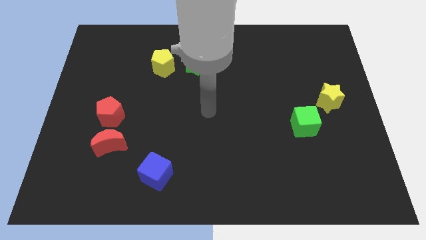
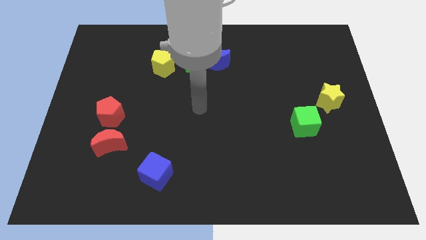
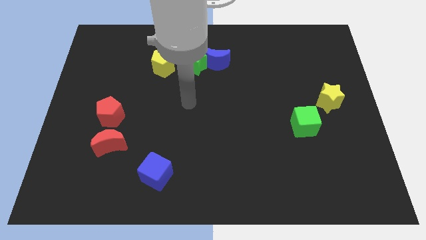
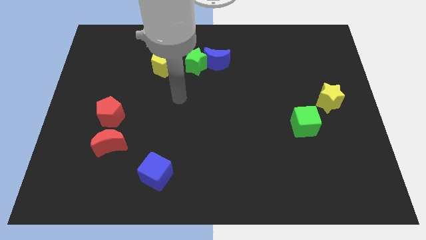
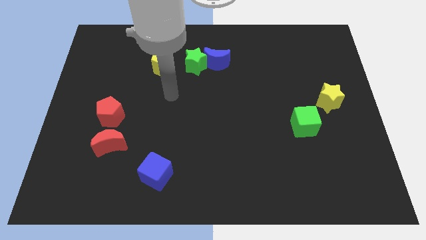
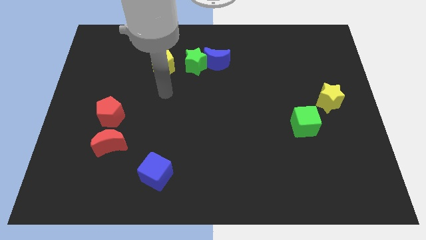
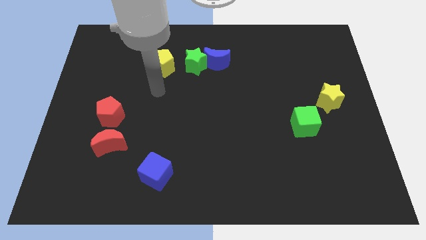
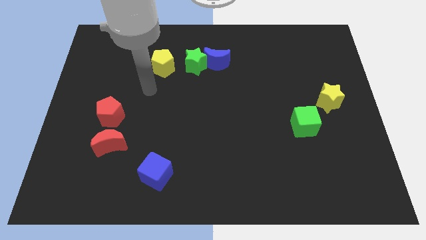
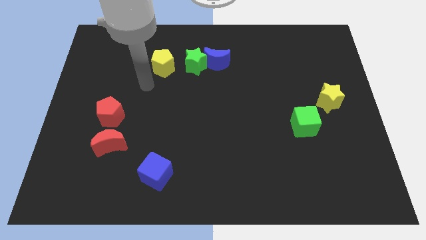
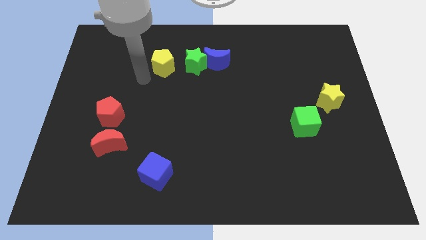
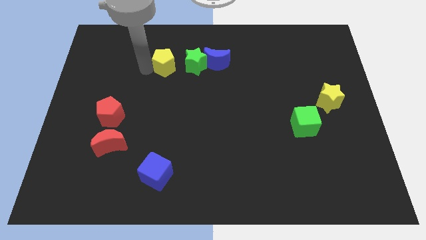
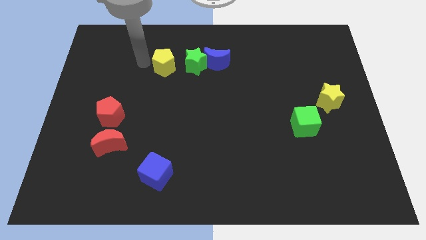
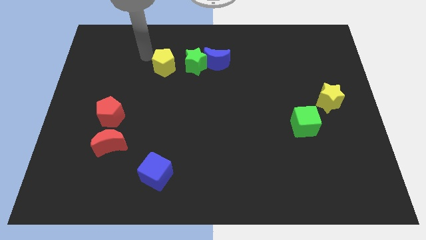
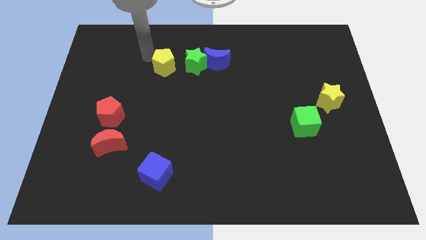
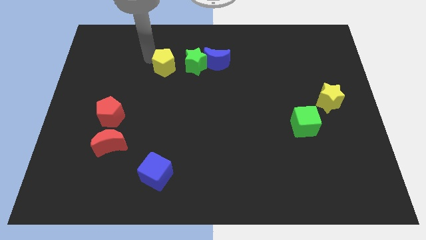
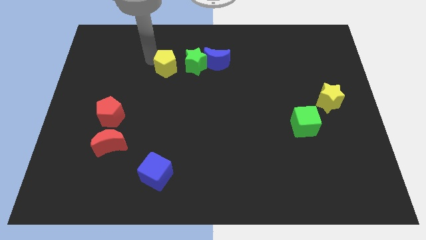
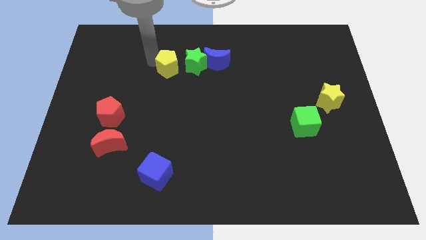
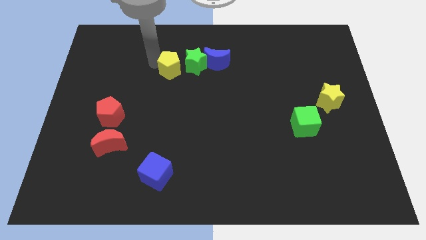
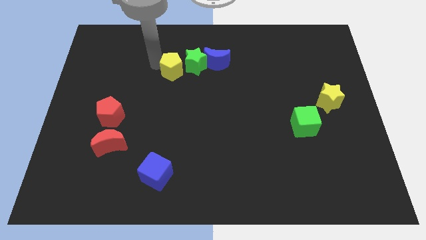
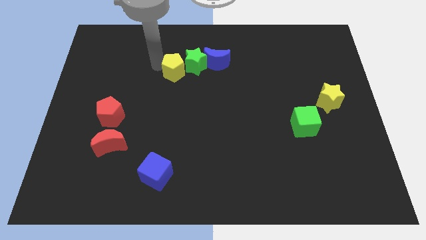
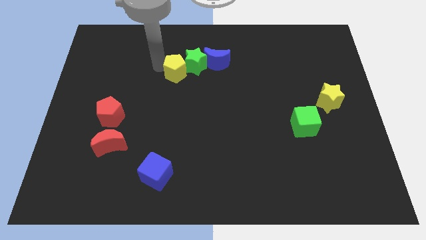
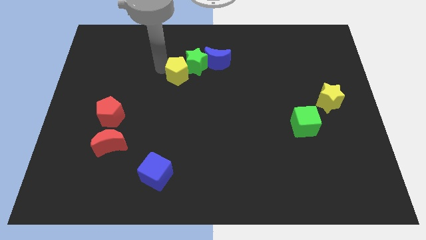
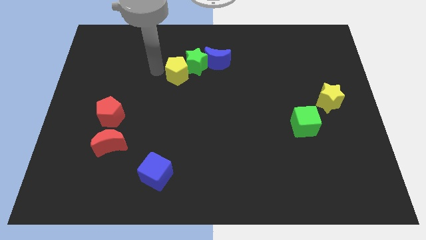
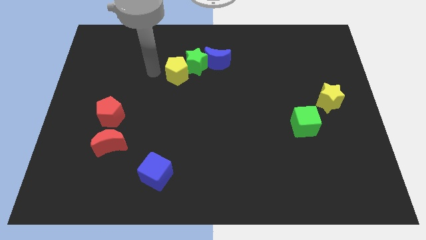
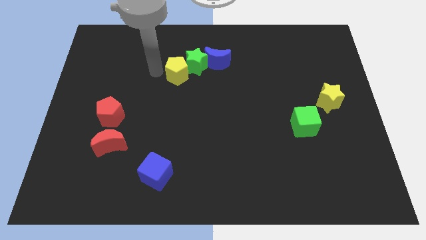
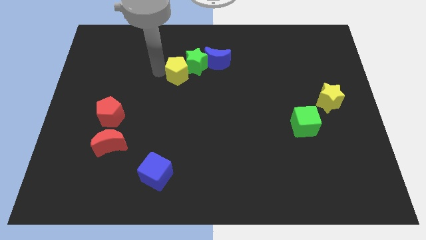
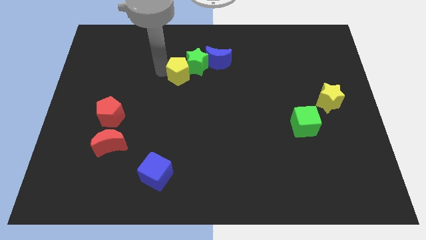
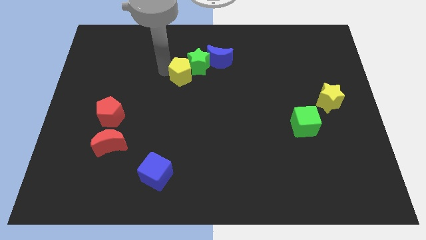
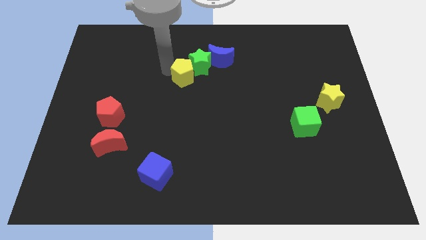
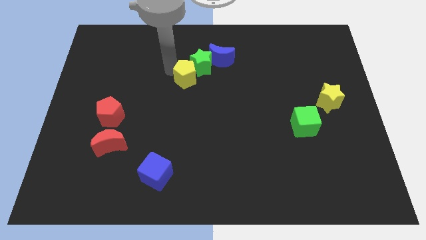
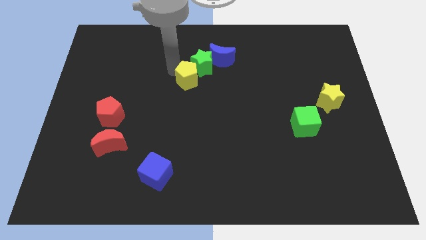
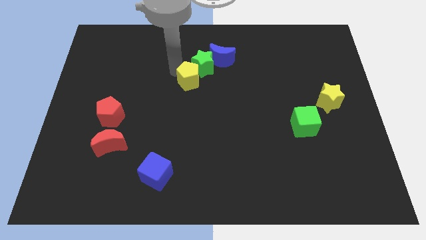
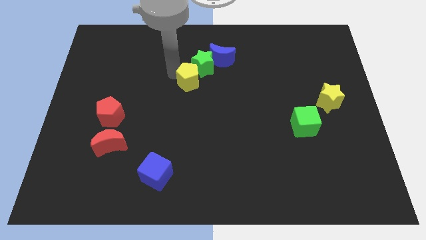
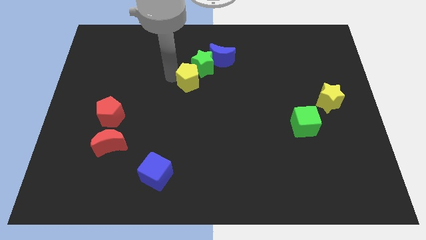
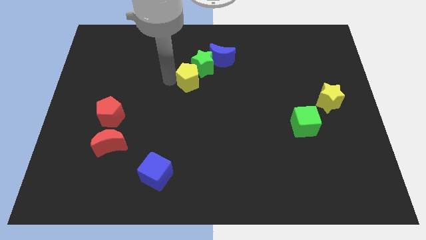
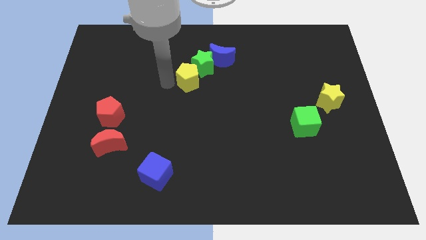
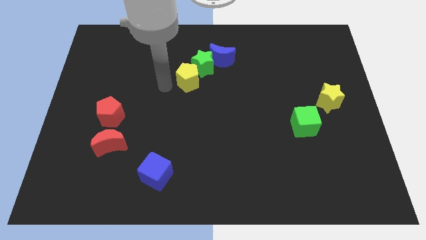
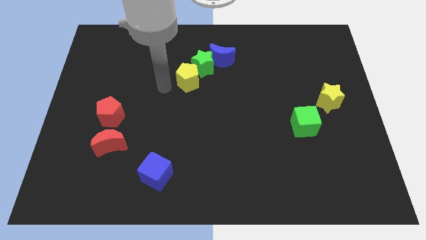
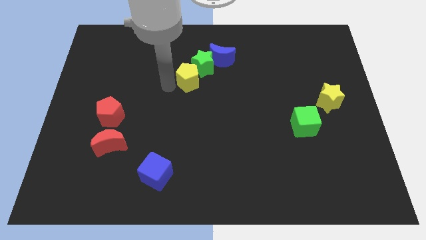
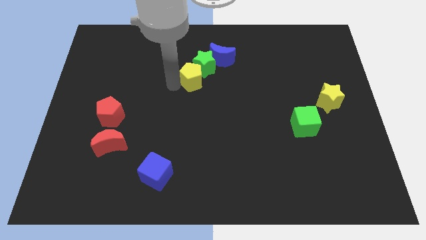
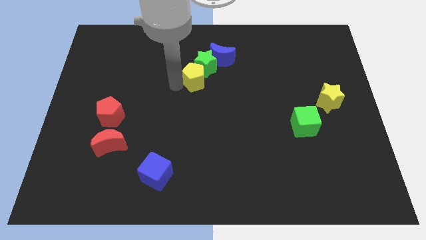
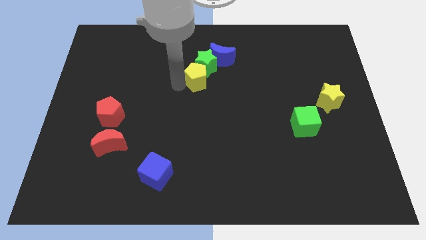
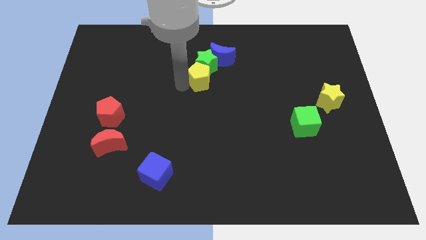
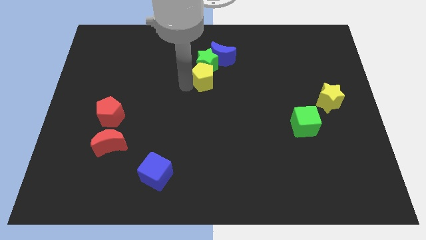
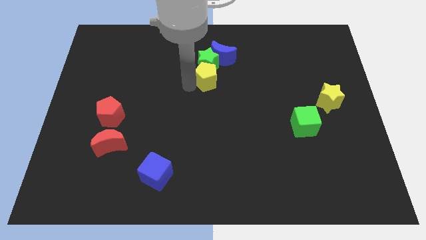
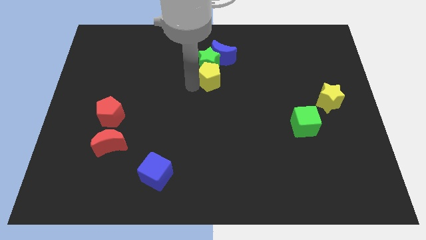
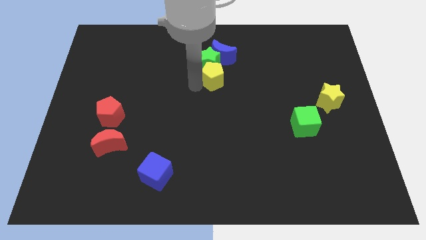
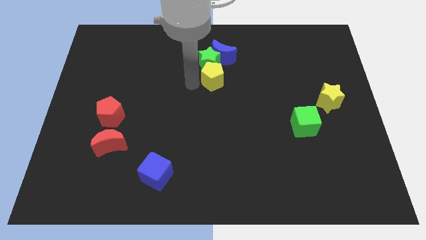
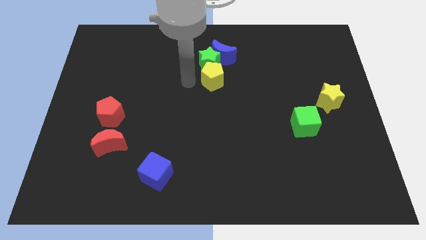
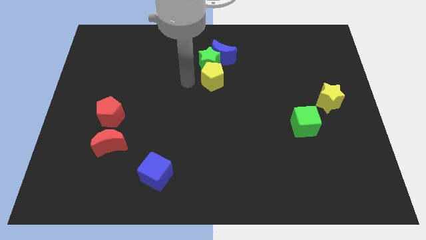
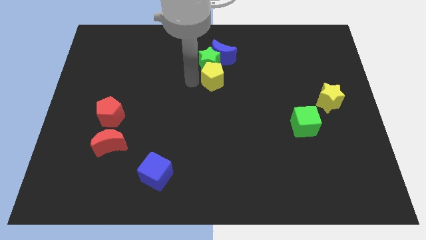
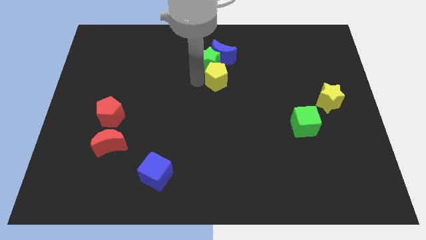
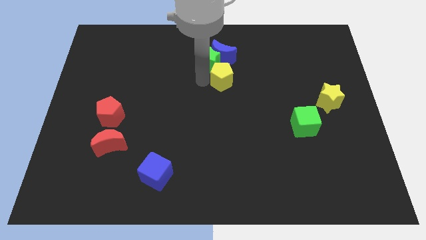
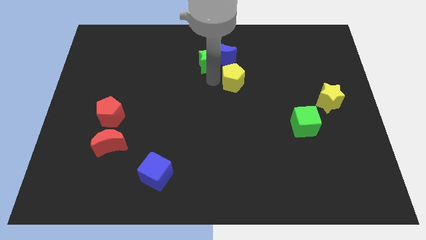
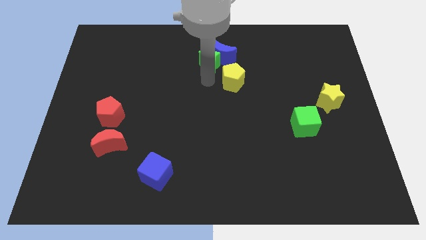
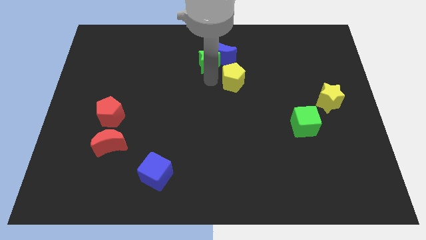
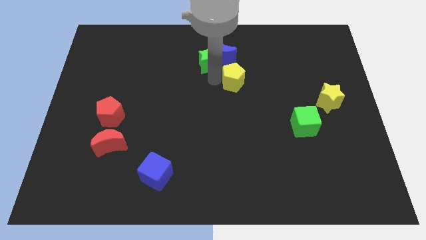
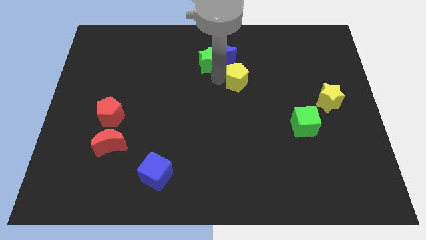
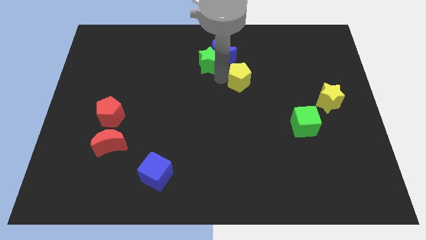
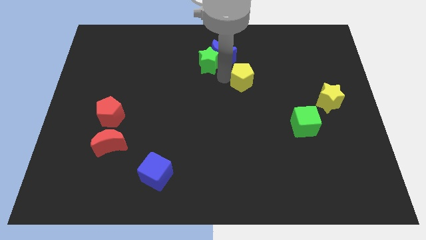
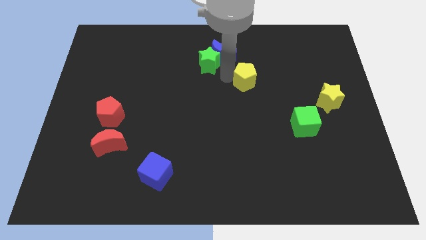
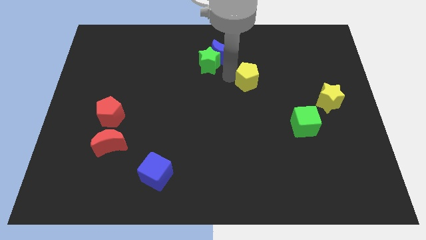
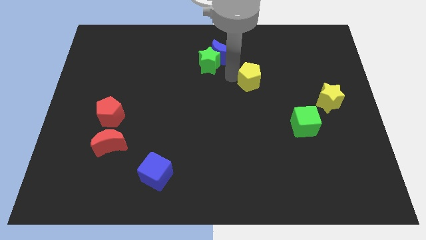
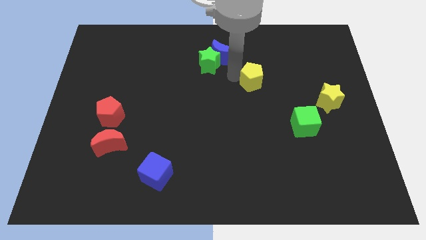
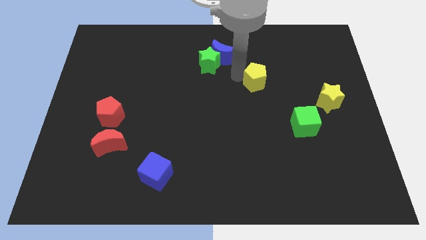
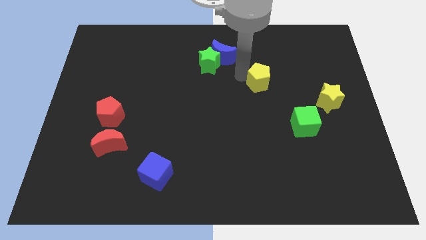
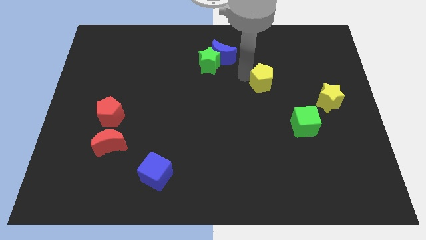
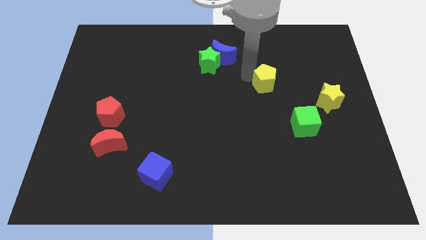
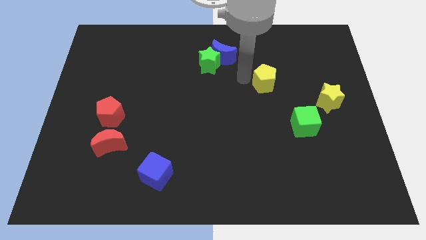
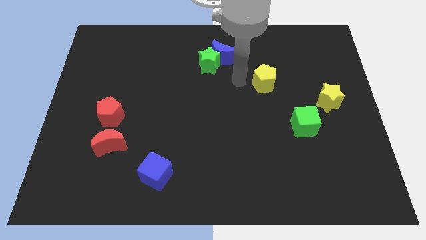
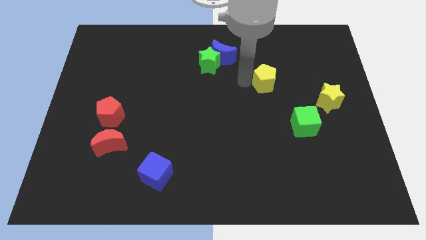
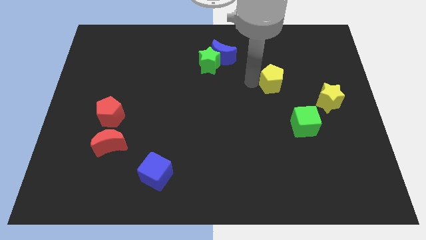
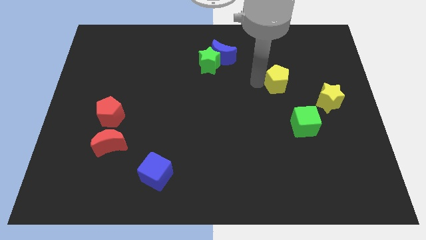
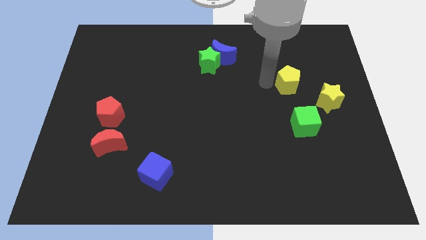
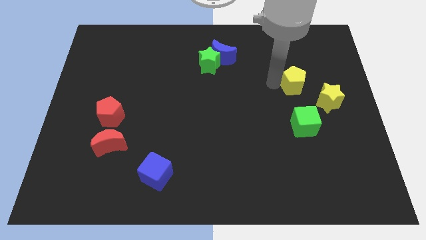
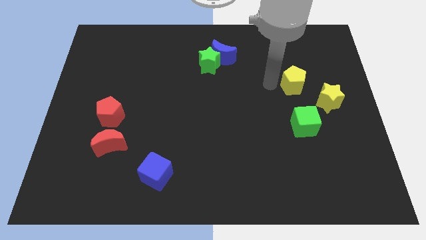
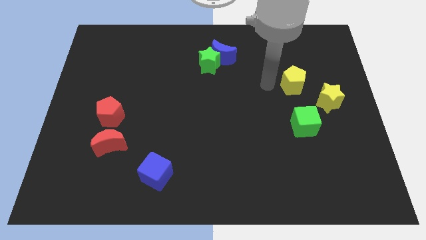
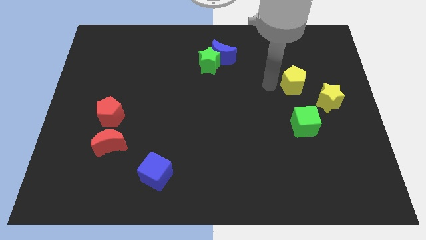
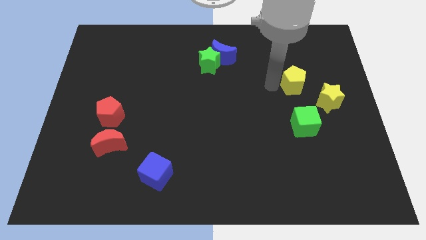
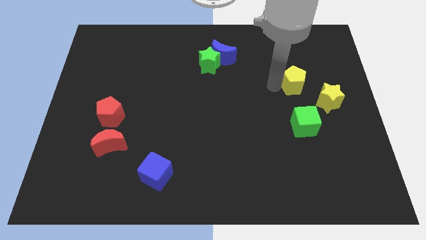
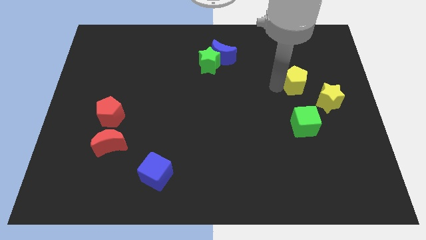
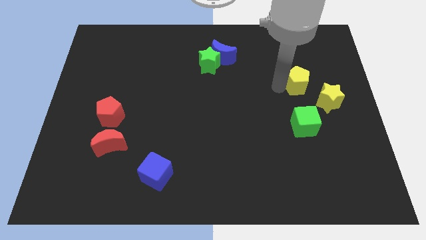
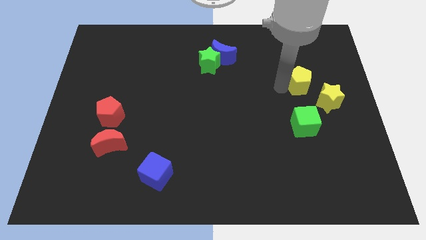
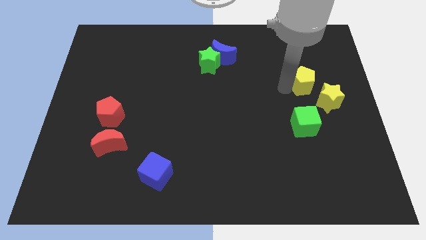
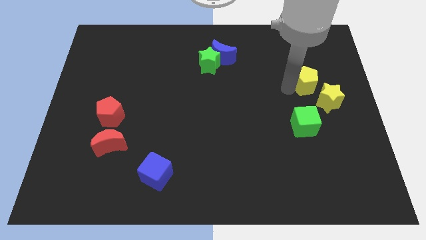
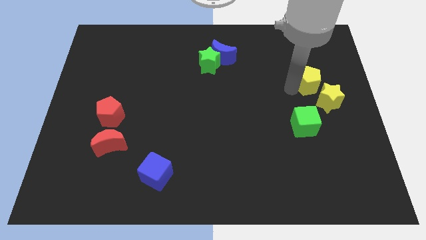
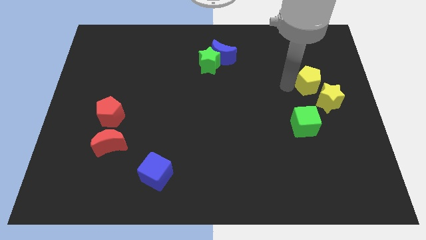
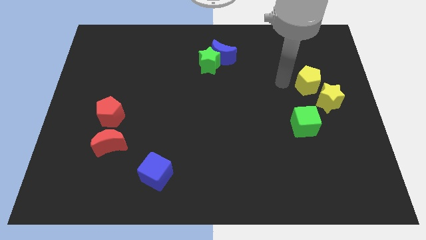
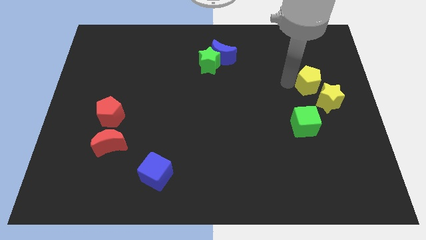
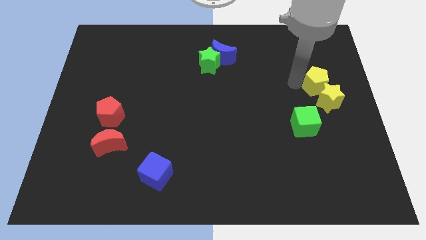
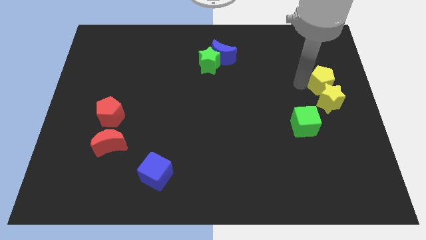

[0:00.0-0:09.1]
slide the yellow pentagon to the right side of the board
